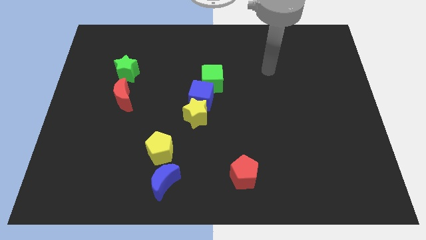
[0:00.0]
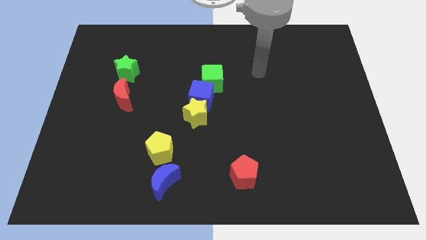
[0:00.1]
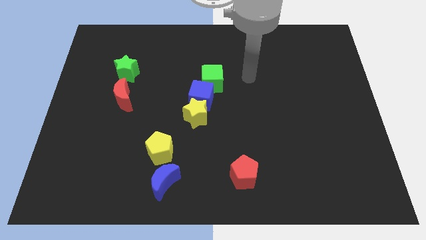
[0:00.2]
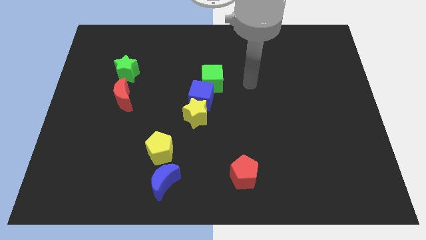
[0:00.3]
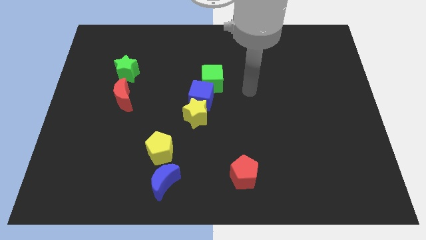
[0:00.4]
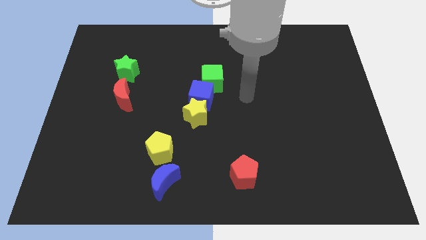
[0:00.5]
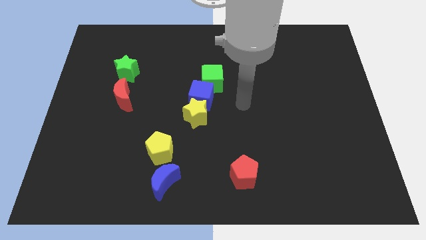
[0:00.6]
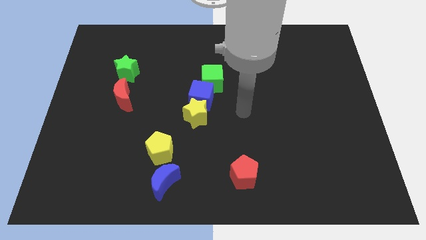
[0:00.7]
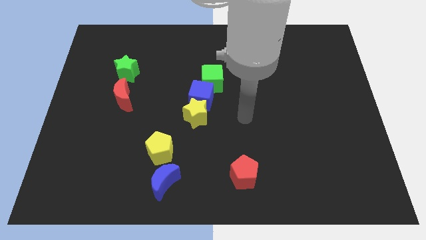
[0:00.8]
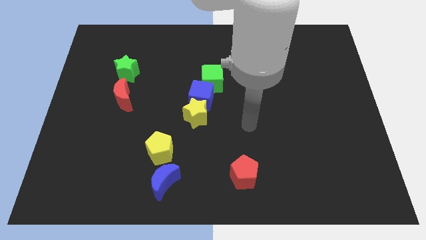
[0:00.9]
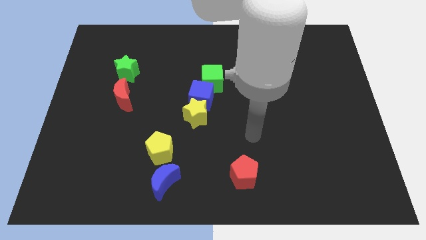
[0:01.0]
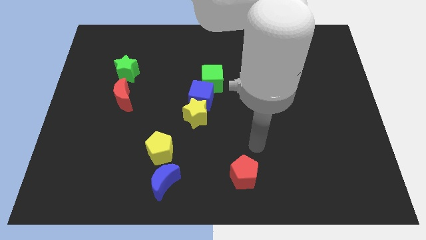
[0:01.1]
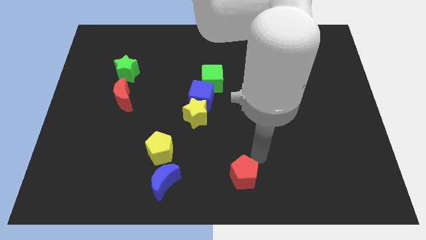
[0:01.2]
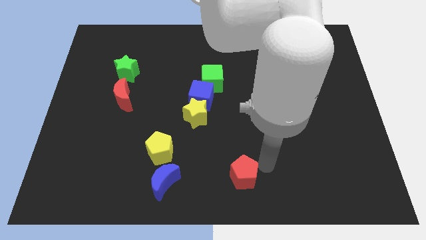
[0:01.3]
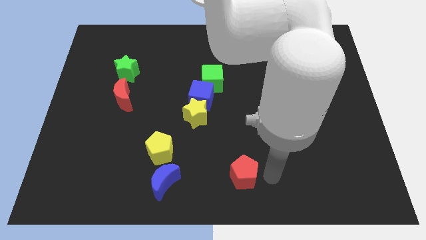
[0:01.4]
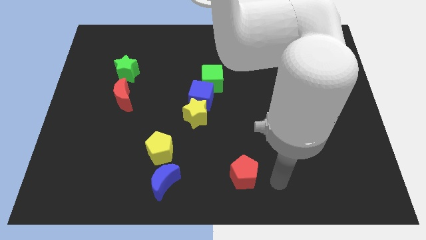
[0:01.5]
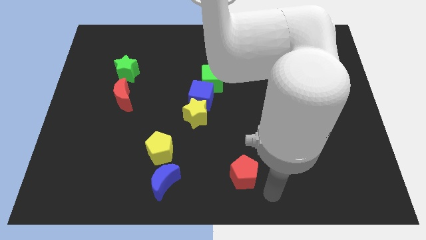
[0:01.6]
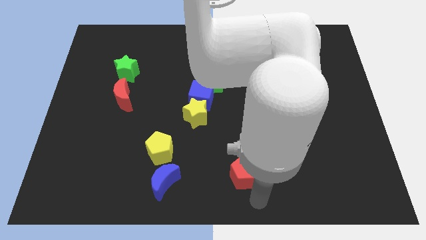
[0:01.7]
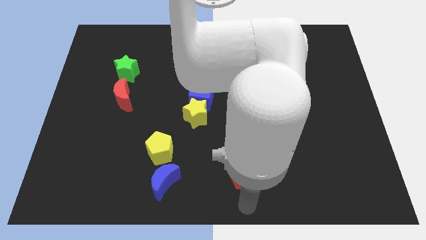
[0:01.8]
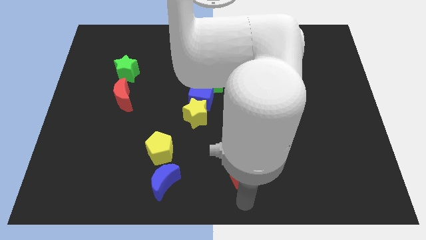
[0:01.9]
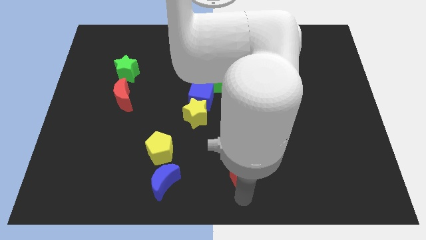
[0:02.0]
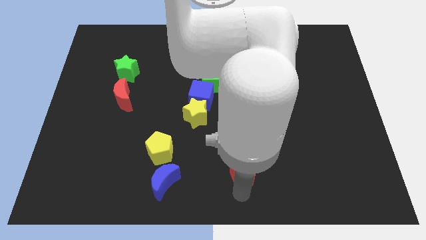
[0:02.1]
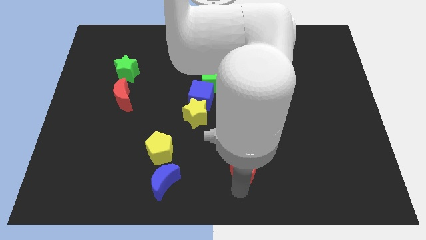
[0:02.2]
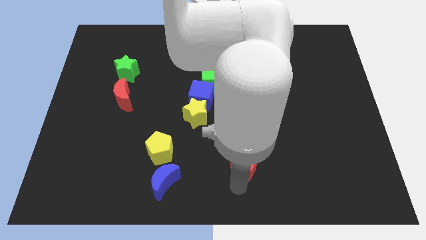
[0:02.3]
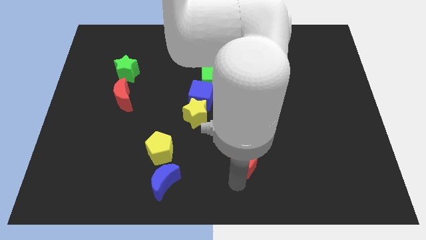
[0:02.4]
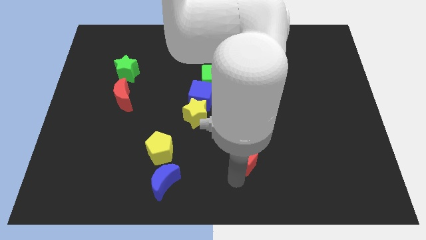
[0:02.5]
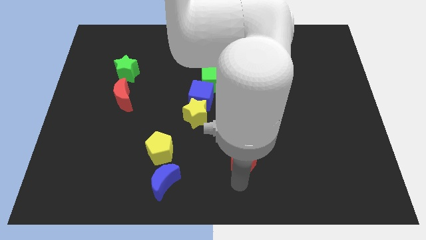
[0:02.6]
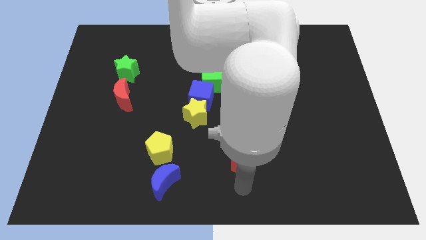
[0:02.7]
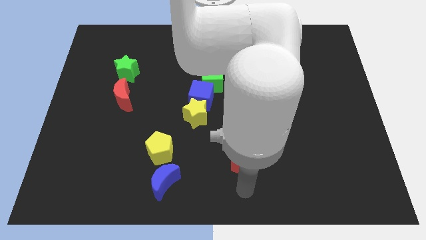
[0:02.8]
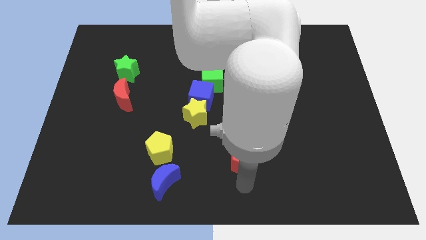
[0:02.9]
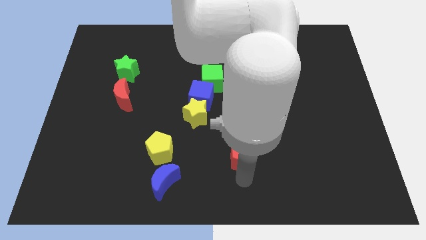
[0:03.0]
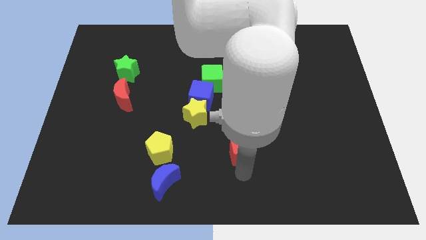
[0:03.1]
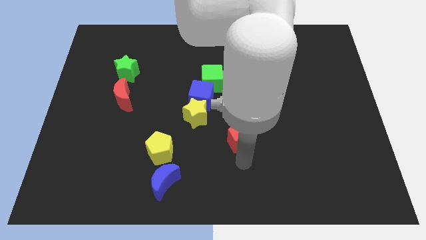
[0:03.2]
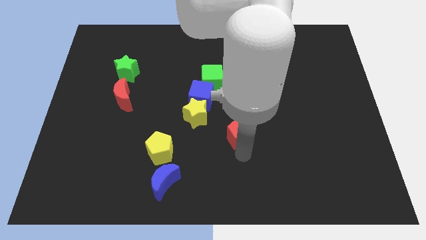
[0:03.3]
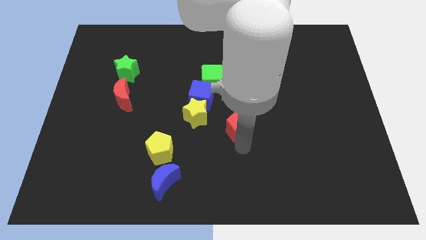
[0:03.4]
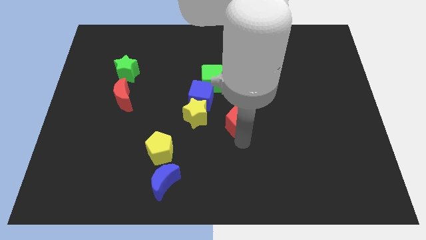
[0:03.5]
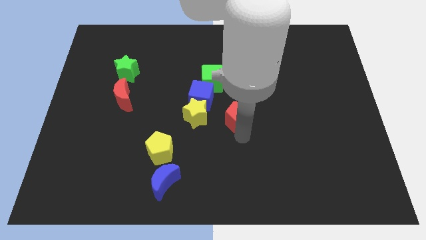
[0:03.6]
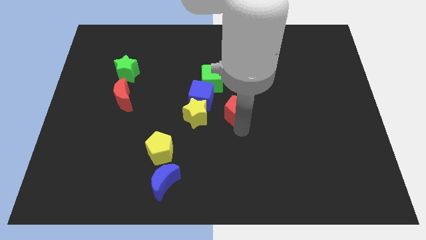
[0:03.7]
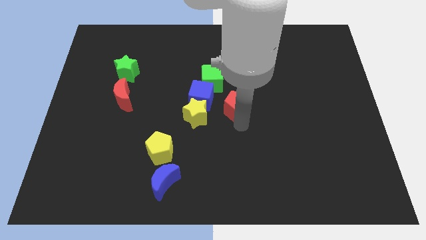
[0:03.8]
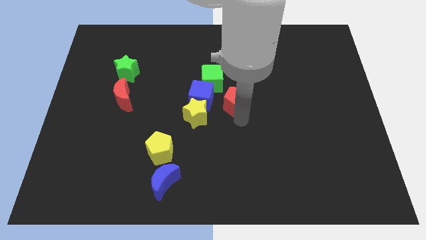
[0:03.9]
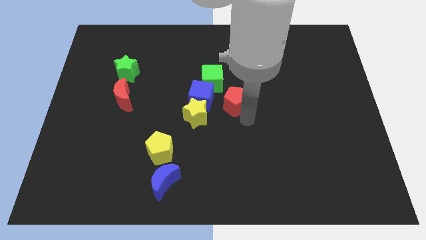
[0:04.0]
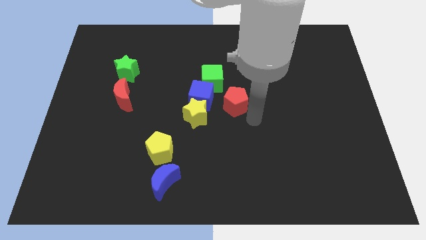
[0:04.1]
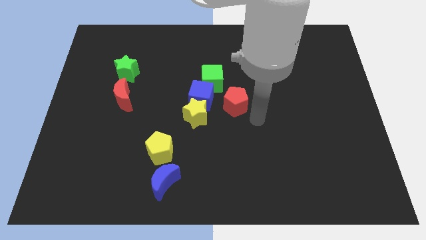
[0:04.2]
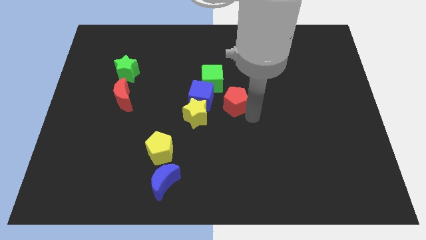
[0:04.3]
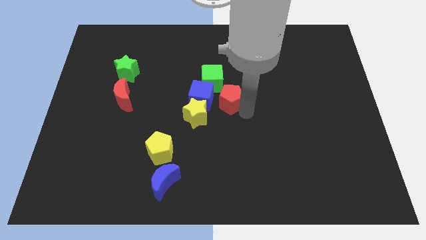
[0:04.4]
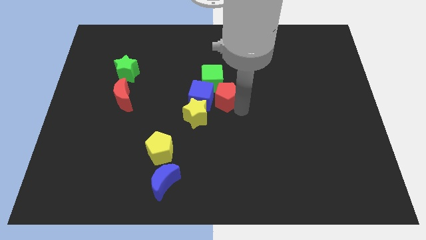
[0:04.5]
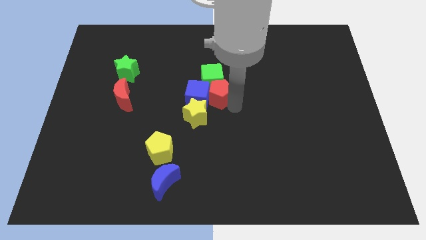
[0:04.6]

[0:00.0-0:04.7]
push the red pentagon next to the green cube

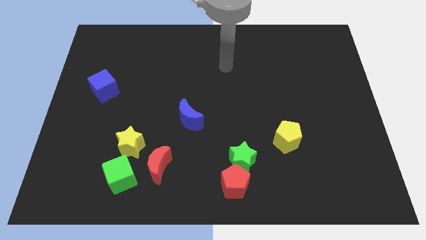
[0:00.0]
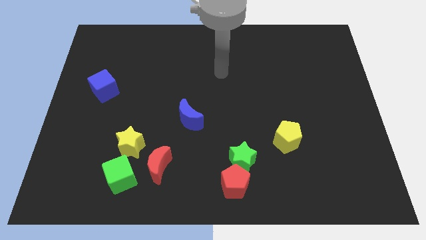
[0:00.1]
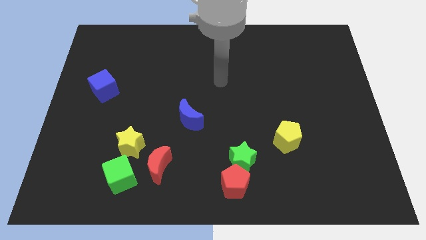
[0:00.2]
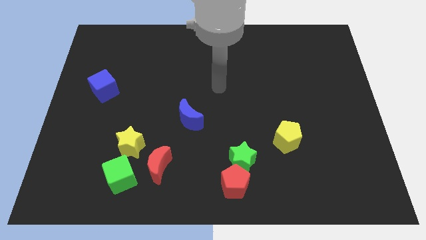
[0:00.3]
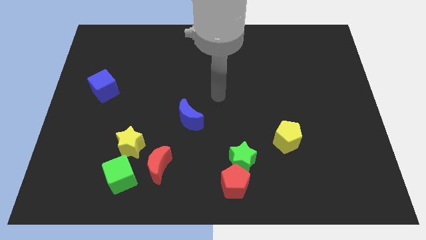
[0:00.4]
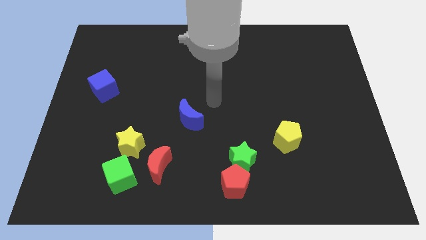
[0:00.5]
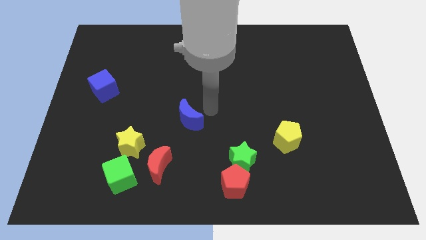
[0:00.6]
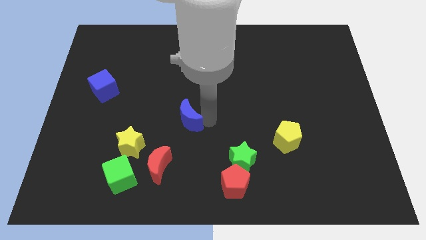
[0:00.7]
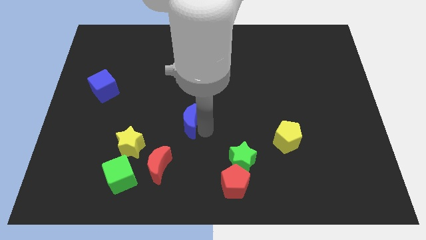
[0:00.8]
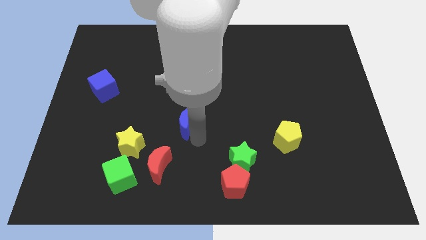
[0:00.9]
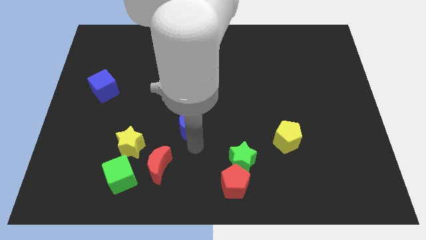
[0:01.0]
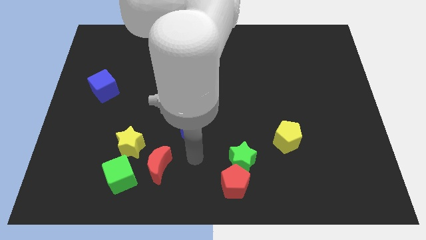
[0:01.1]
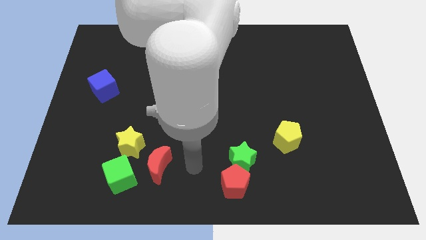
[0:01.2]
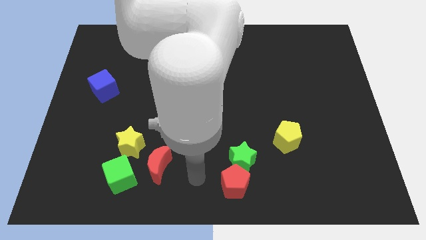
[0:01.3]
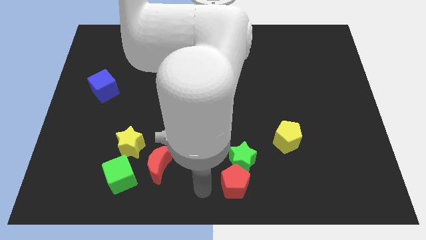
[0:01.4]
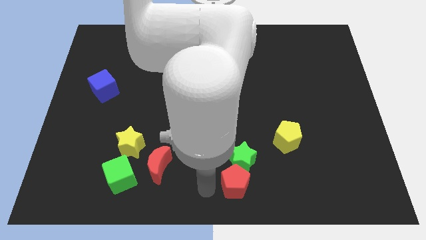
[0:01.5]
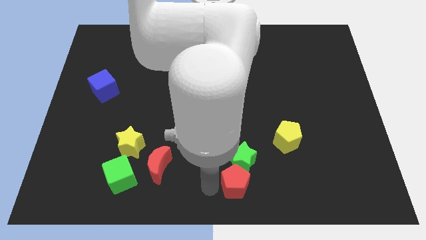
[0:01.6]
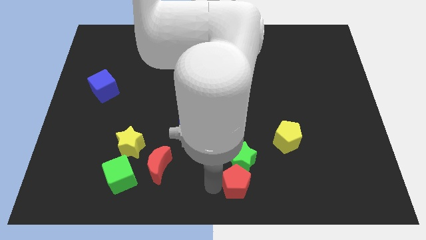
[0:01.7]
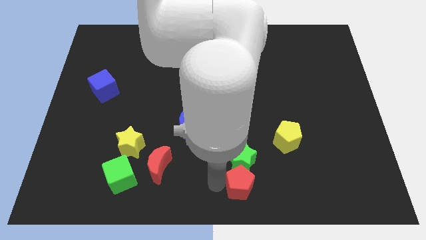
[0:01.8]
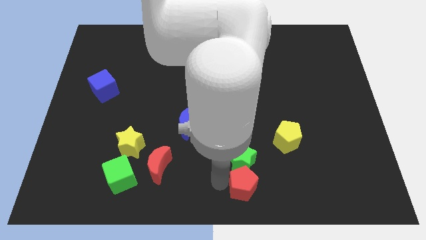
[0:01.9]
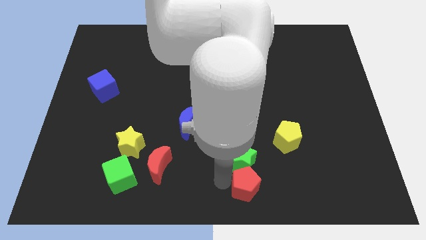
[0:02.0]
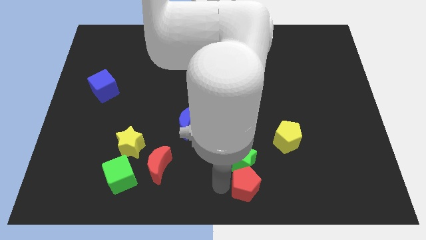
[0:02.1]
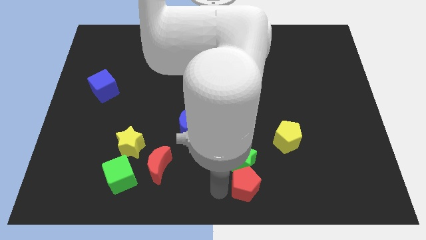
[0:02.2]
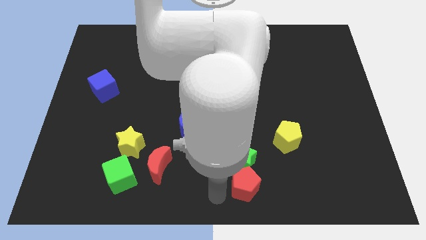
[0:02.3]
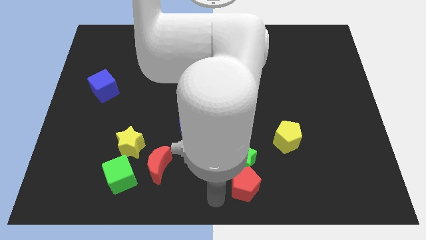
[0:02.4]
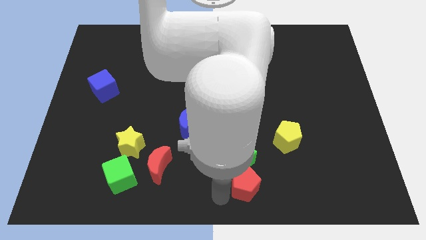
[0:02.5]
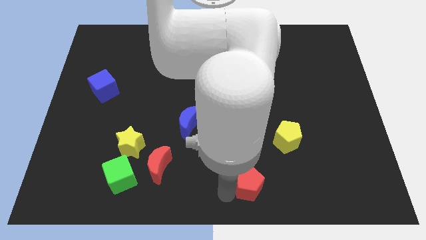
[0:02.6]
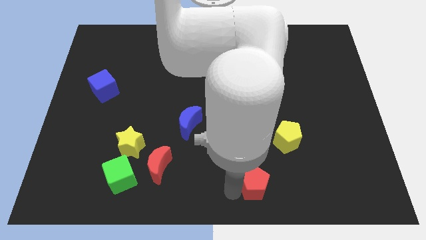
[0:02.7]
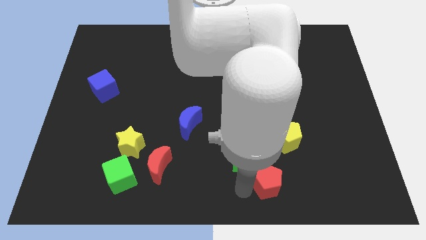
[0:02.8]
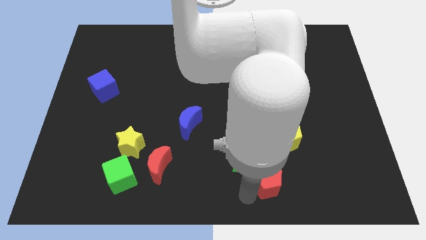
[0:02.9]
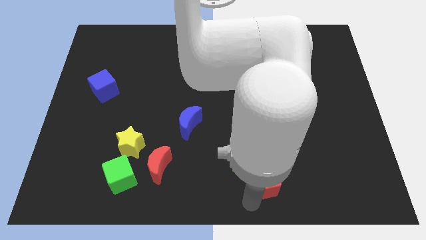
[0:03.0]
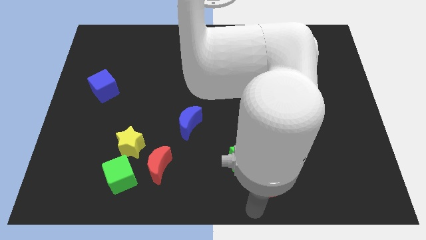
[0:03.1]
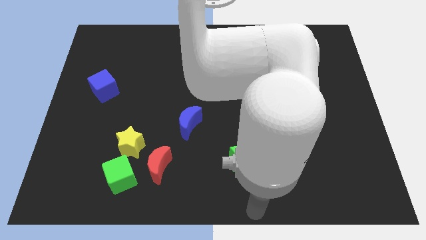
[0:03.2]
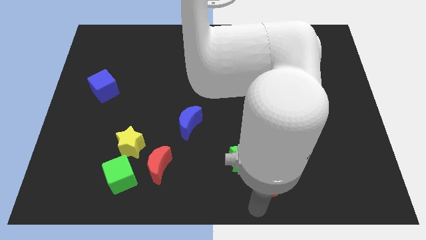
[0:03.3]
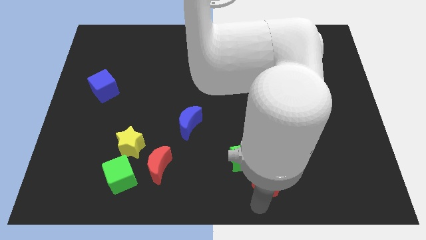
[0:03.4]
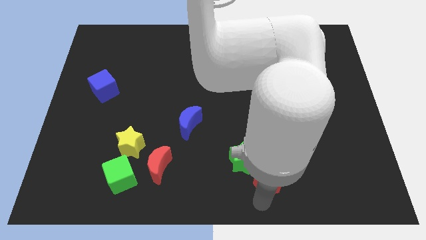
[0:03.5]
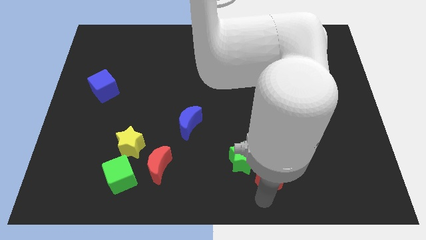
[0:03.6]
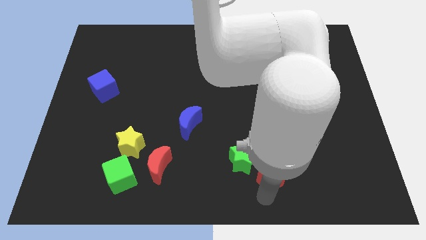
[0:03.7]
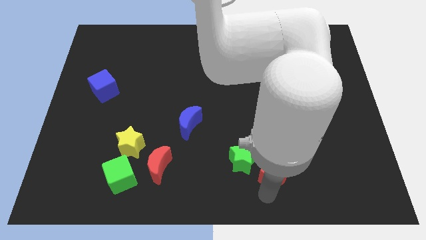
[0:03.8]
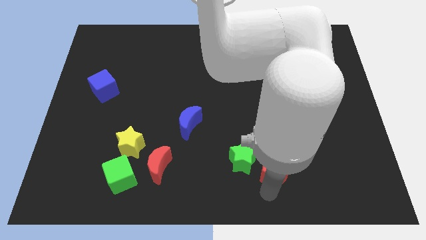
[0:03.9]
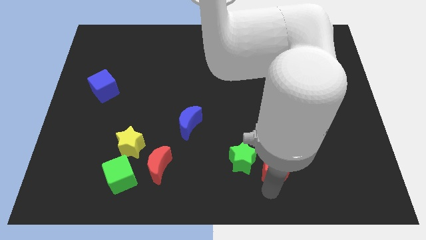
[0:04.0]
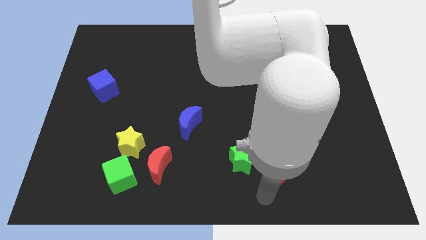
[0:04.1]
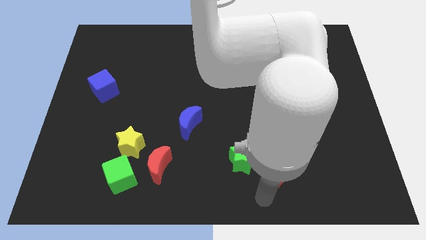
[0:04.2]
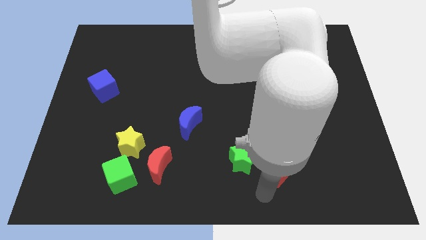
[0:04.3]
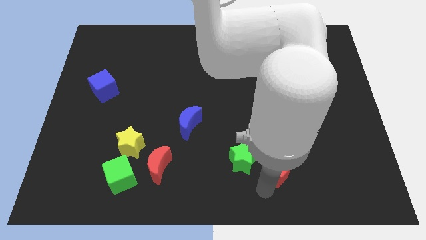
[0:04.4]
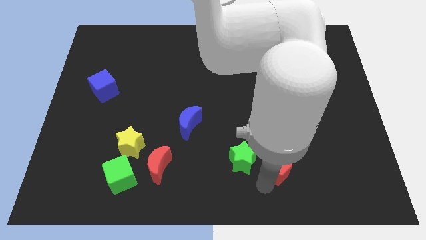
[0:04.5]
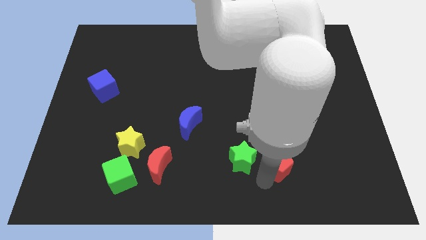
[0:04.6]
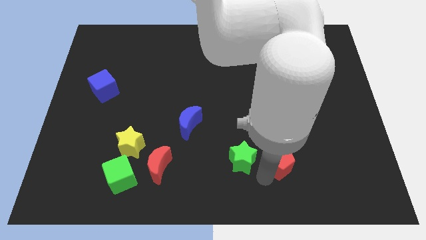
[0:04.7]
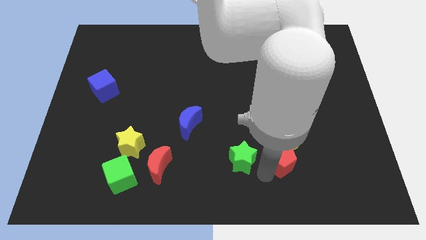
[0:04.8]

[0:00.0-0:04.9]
move the red pentagon to the yellow pentagon
